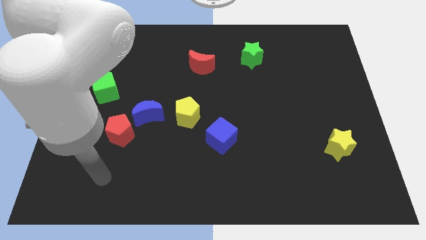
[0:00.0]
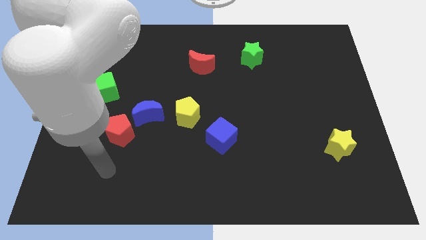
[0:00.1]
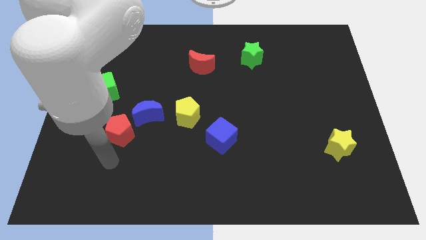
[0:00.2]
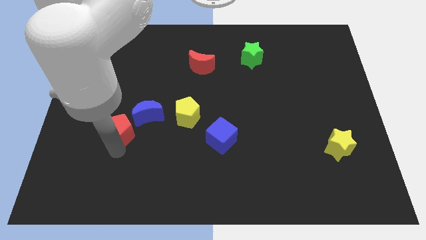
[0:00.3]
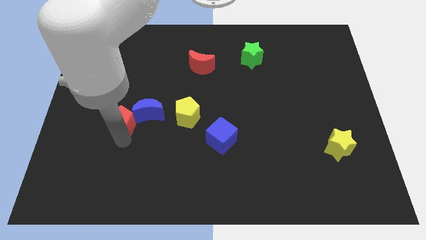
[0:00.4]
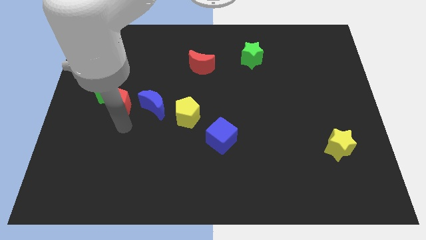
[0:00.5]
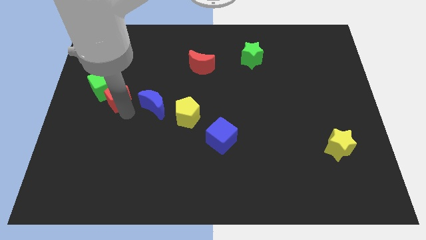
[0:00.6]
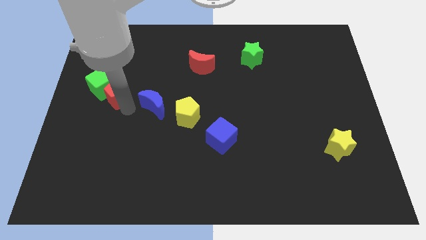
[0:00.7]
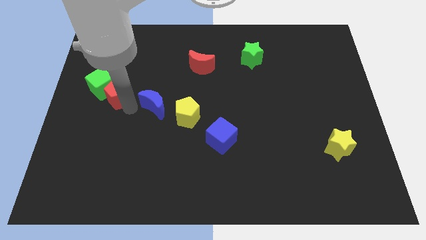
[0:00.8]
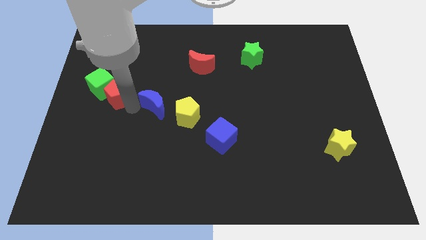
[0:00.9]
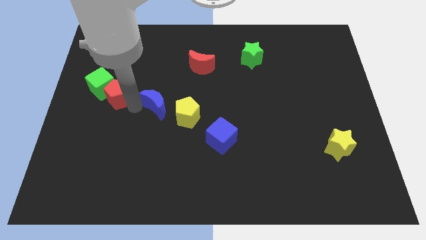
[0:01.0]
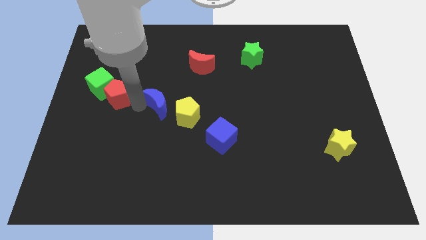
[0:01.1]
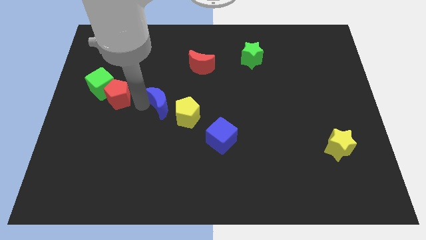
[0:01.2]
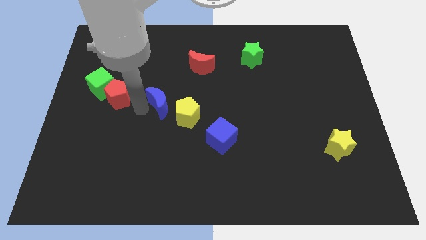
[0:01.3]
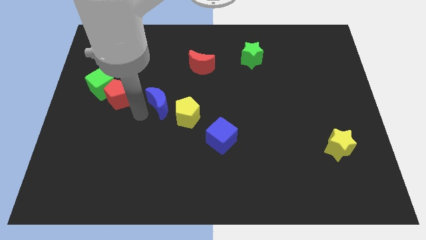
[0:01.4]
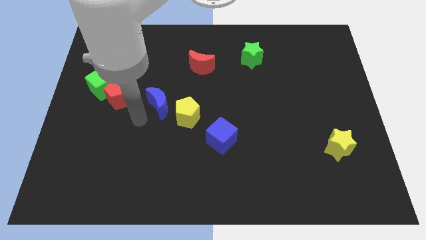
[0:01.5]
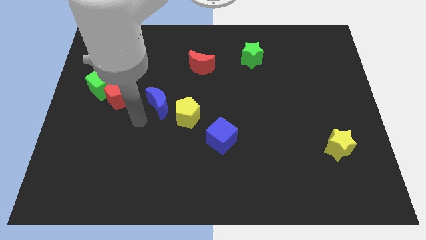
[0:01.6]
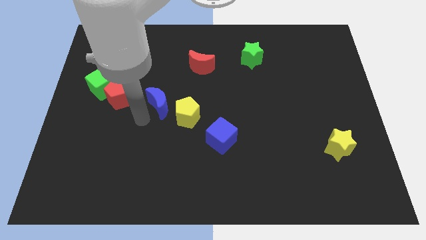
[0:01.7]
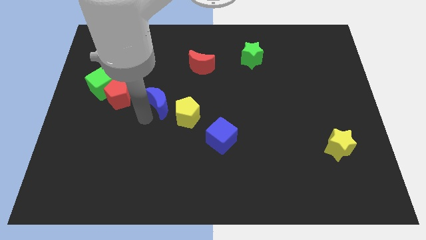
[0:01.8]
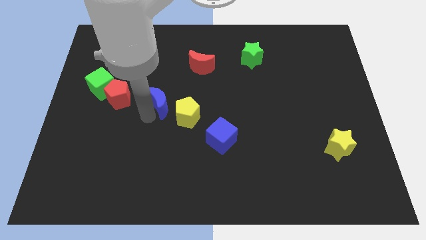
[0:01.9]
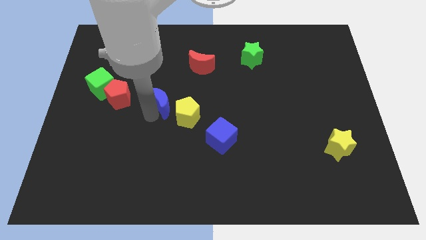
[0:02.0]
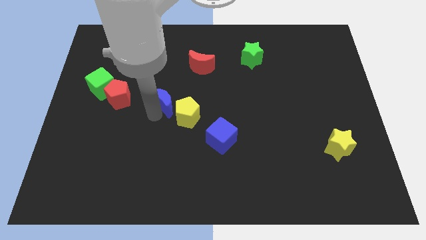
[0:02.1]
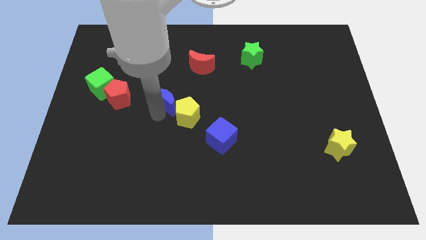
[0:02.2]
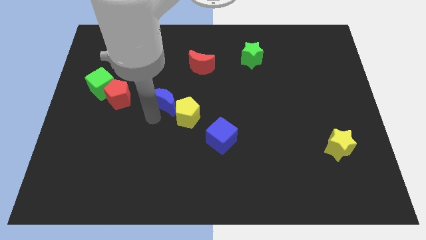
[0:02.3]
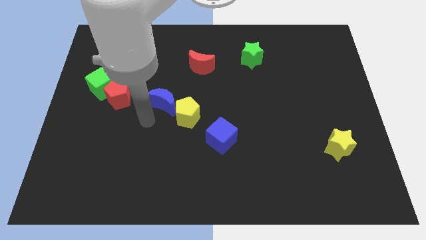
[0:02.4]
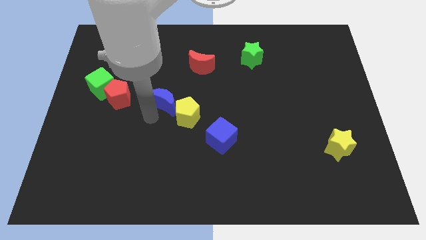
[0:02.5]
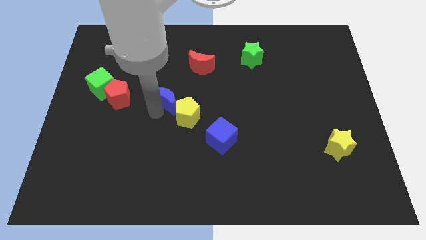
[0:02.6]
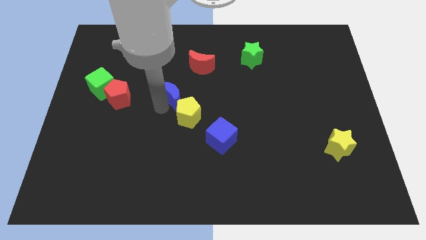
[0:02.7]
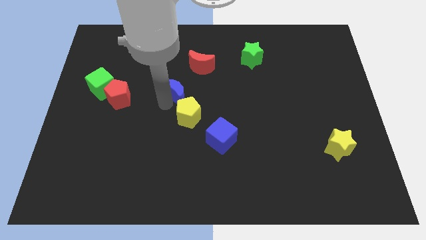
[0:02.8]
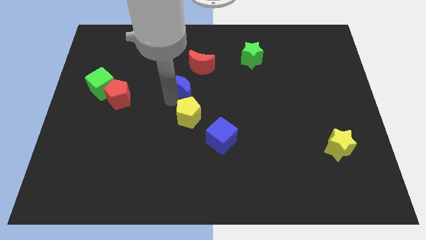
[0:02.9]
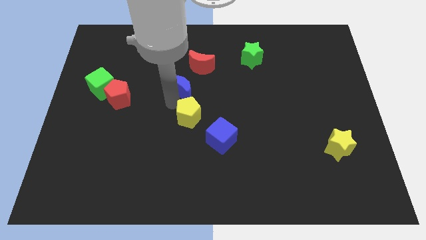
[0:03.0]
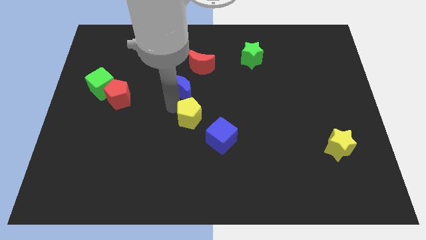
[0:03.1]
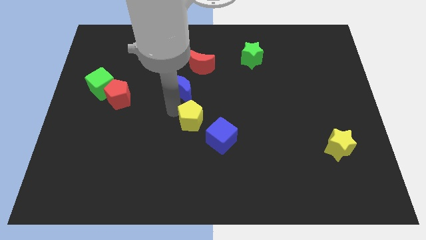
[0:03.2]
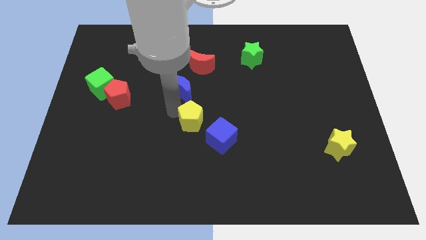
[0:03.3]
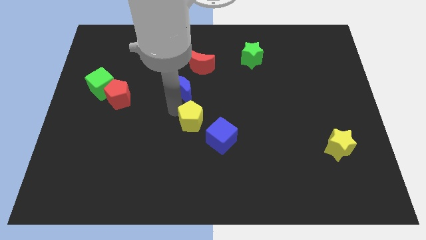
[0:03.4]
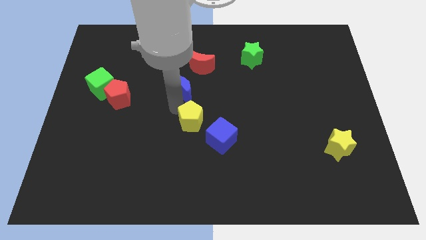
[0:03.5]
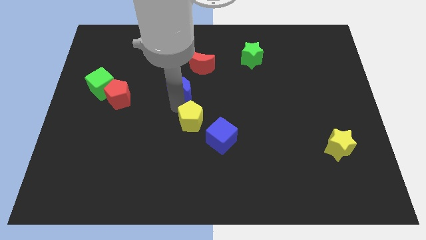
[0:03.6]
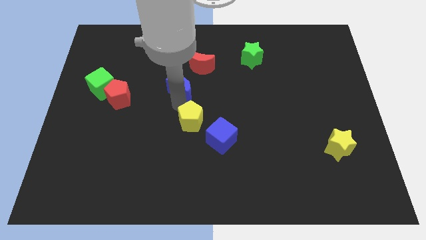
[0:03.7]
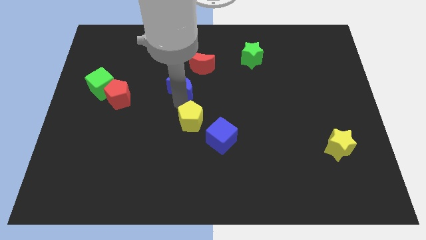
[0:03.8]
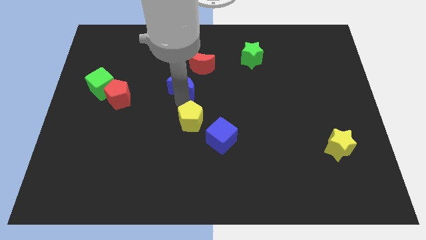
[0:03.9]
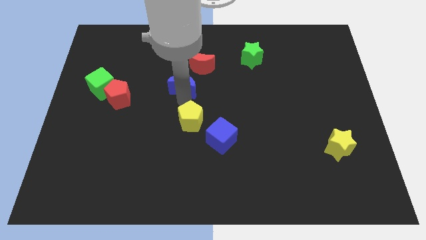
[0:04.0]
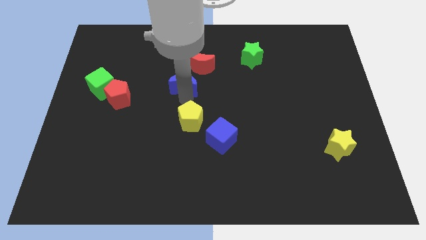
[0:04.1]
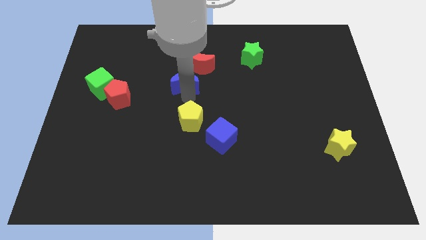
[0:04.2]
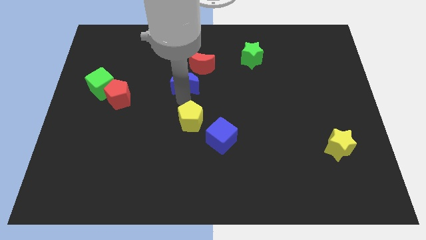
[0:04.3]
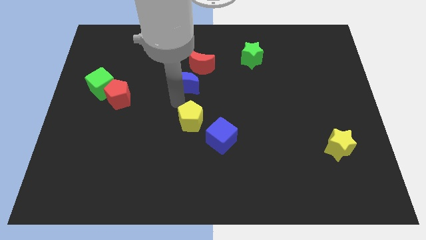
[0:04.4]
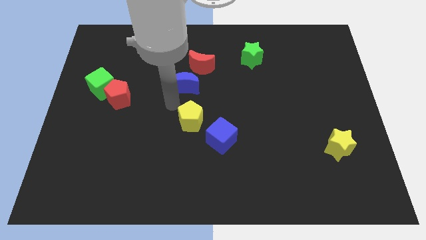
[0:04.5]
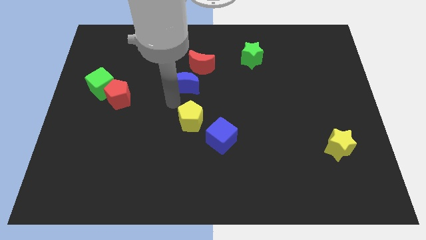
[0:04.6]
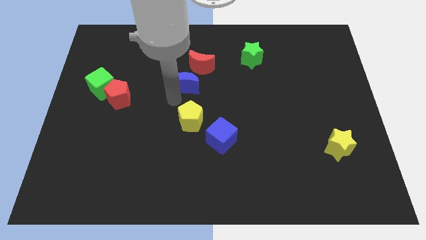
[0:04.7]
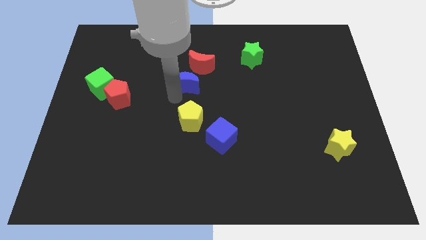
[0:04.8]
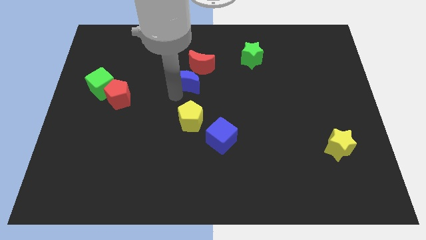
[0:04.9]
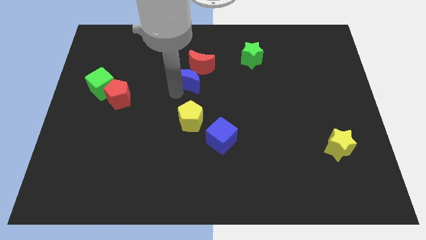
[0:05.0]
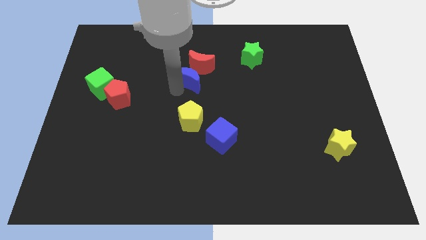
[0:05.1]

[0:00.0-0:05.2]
put the blue moon to the red moon

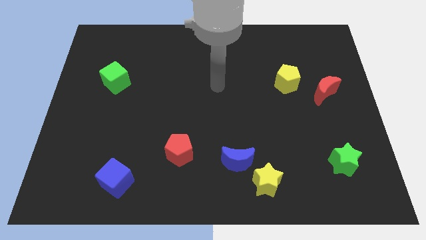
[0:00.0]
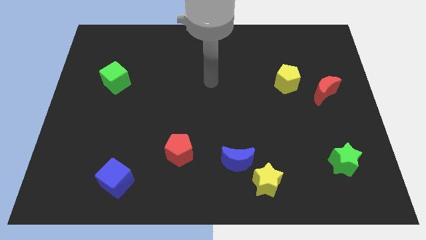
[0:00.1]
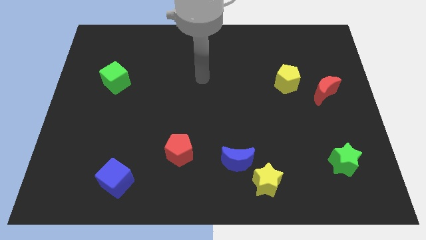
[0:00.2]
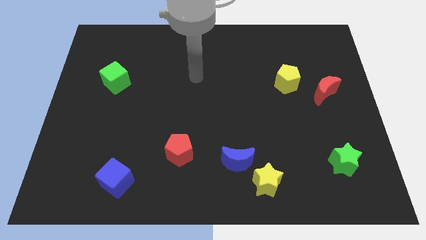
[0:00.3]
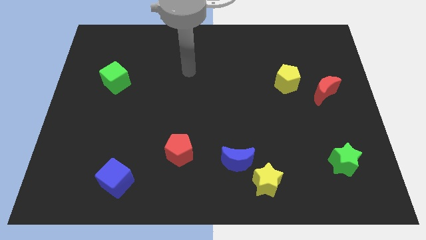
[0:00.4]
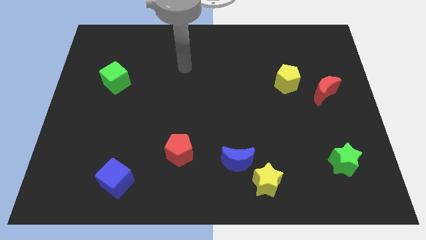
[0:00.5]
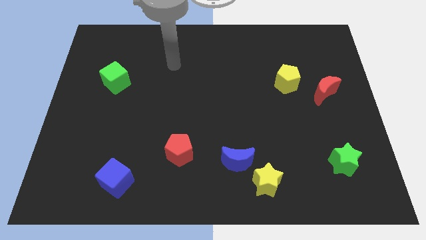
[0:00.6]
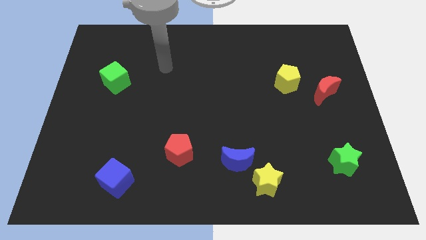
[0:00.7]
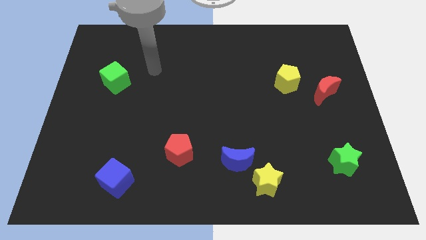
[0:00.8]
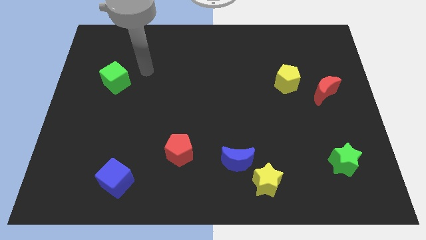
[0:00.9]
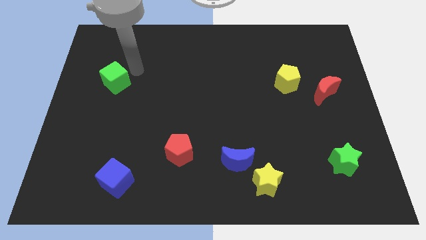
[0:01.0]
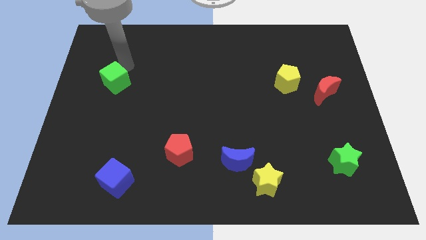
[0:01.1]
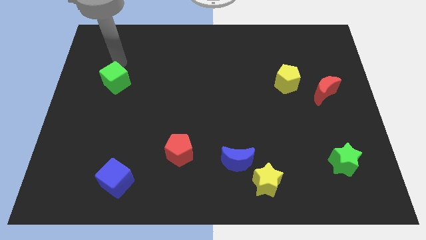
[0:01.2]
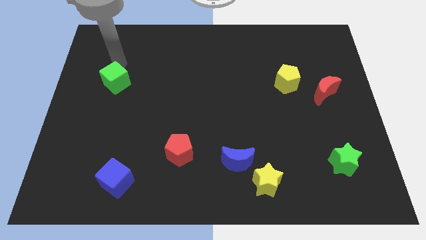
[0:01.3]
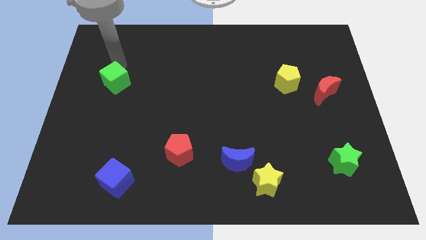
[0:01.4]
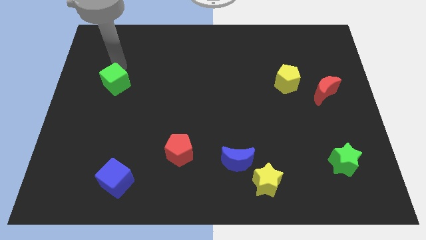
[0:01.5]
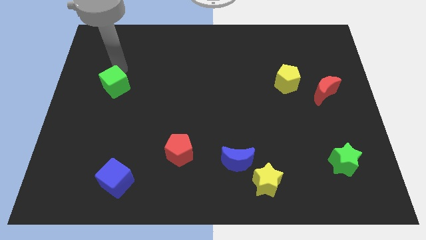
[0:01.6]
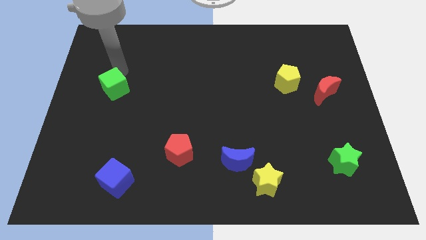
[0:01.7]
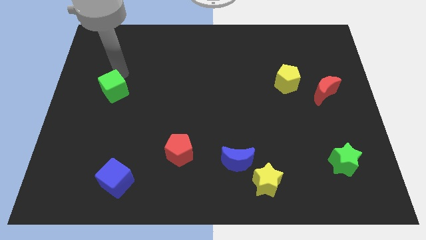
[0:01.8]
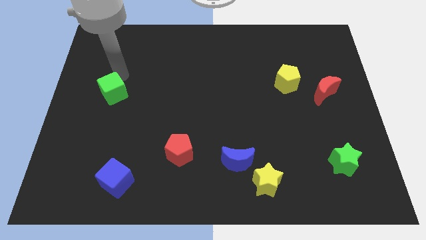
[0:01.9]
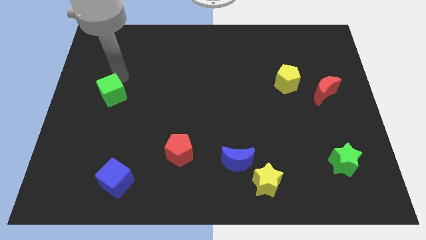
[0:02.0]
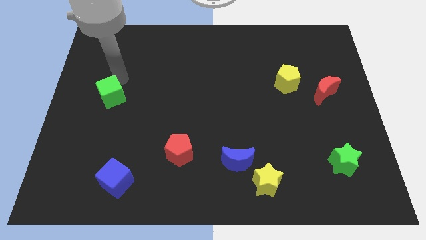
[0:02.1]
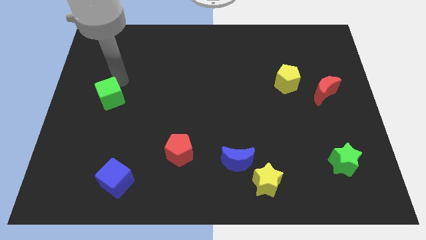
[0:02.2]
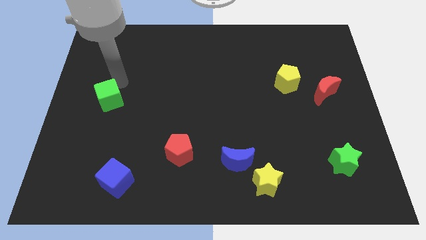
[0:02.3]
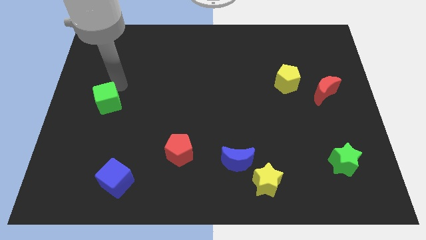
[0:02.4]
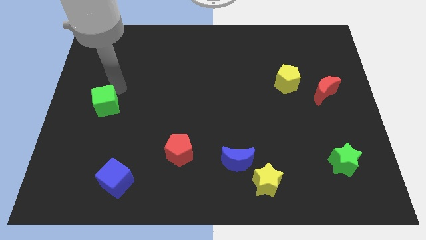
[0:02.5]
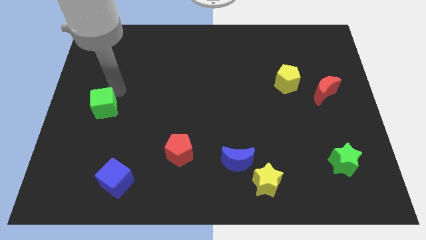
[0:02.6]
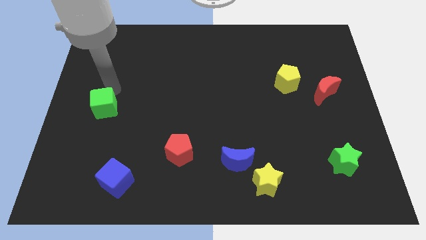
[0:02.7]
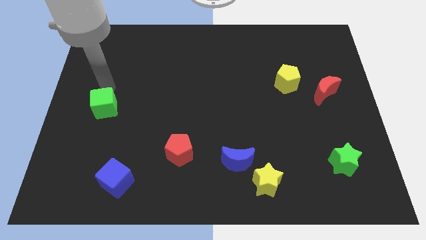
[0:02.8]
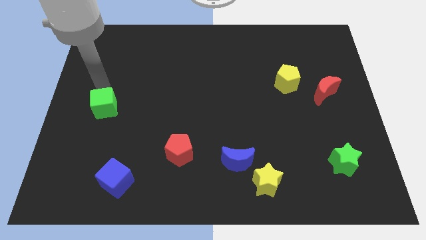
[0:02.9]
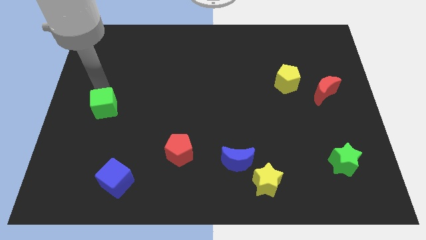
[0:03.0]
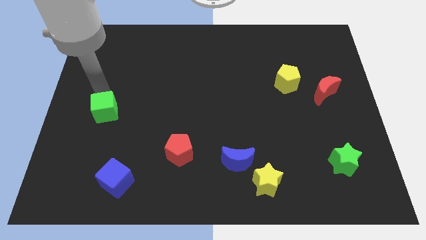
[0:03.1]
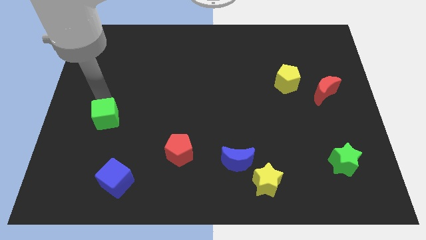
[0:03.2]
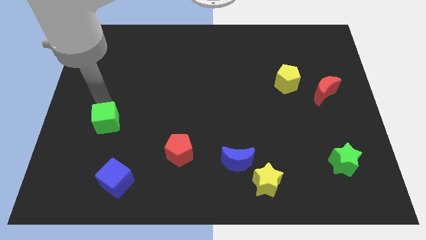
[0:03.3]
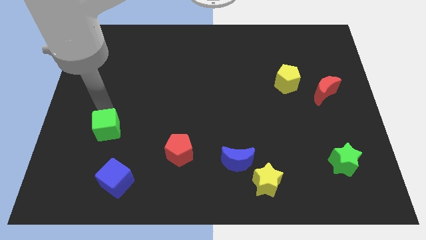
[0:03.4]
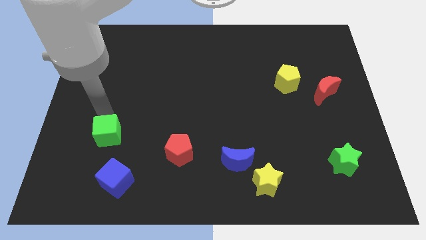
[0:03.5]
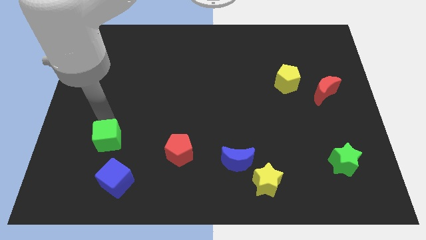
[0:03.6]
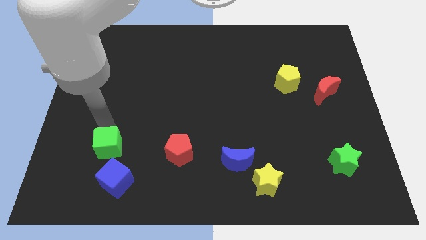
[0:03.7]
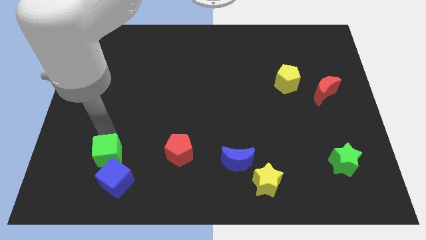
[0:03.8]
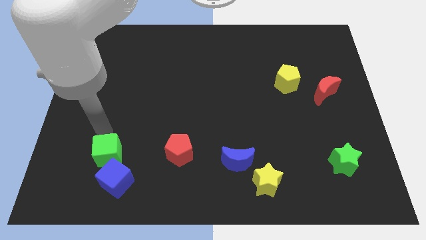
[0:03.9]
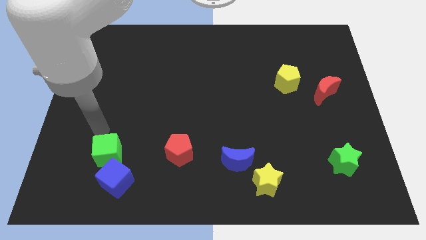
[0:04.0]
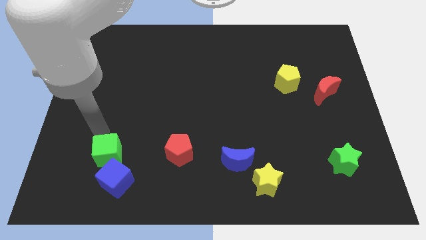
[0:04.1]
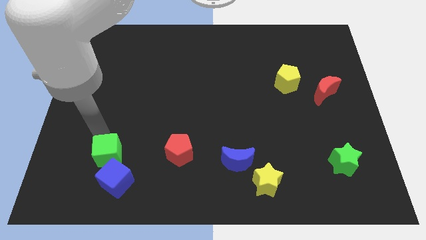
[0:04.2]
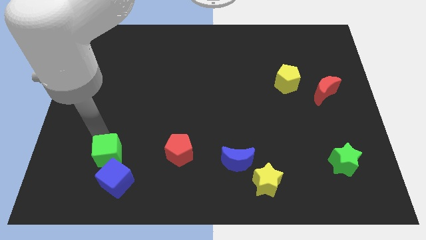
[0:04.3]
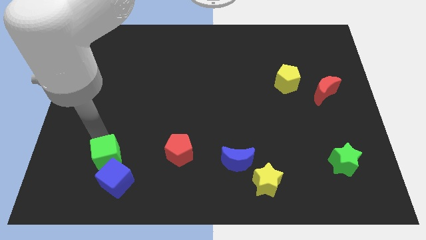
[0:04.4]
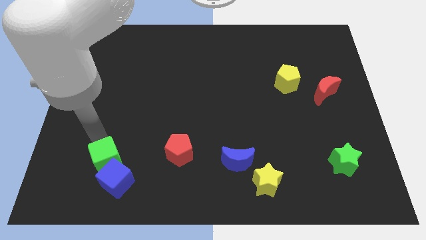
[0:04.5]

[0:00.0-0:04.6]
slide the green cube to the blue cube
